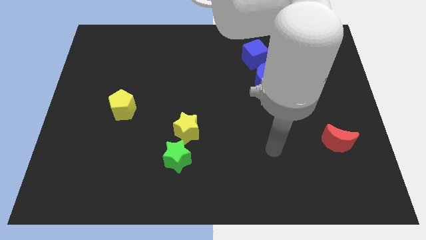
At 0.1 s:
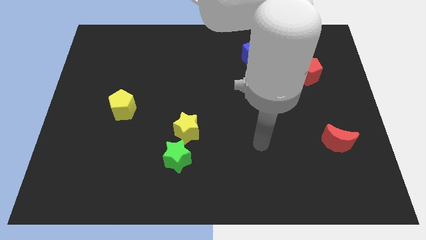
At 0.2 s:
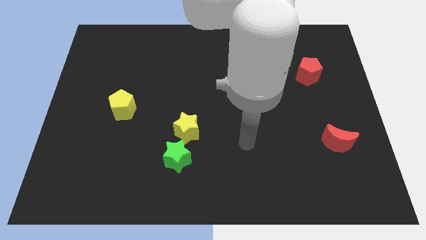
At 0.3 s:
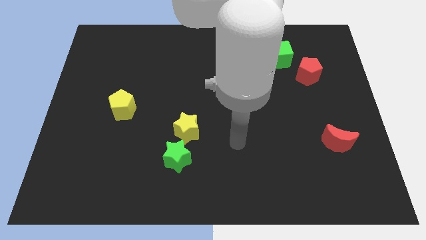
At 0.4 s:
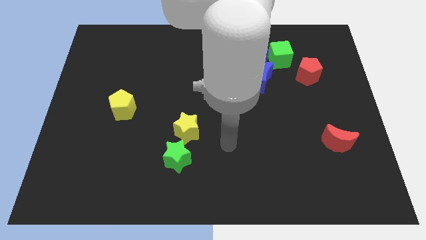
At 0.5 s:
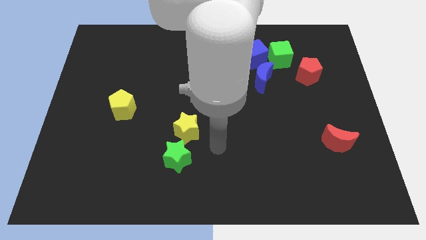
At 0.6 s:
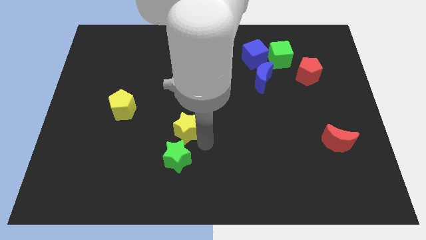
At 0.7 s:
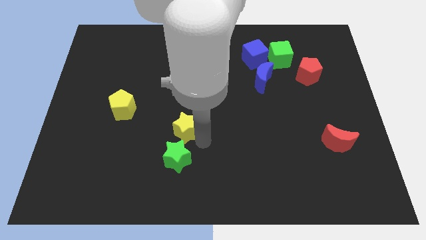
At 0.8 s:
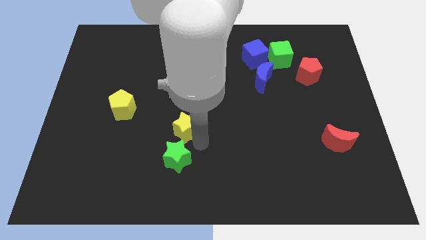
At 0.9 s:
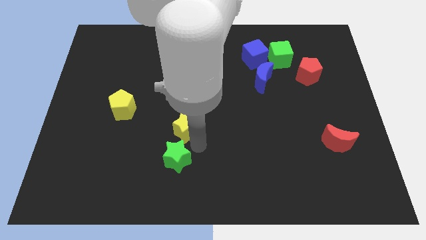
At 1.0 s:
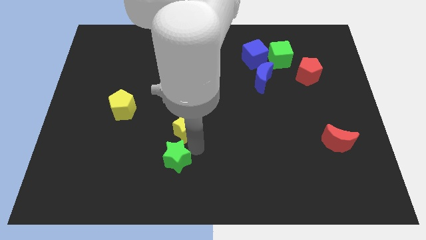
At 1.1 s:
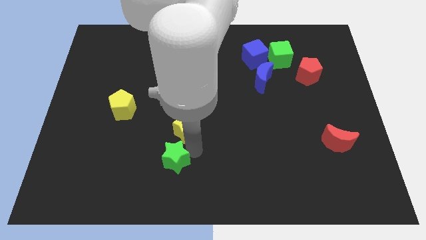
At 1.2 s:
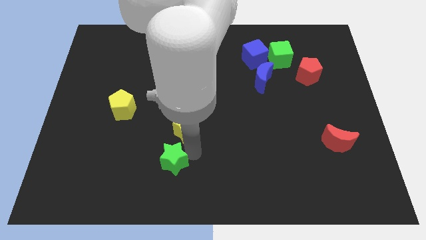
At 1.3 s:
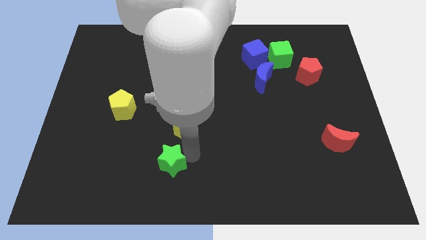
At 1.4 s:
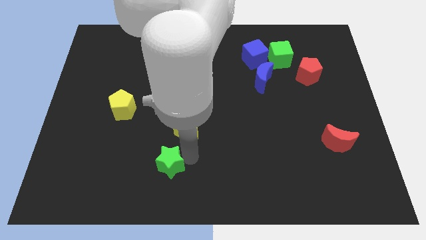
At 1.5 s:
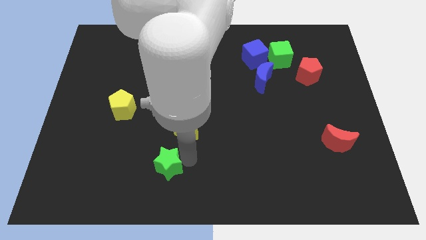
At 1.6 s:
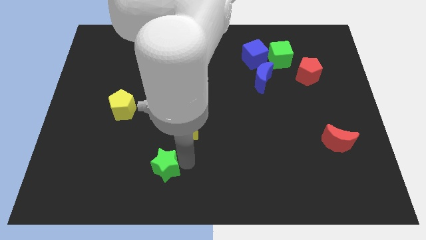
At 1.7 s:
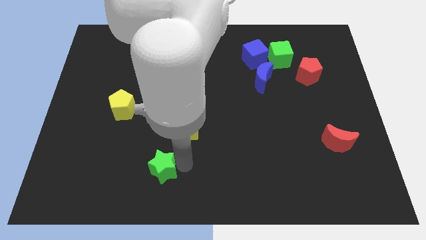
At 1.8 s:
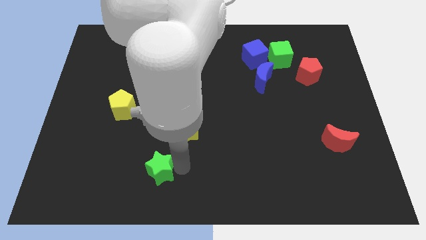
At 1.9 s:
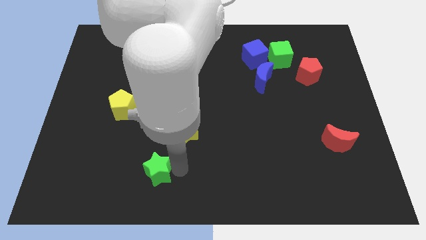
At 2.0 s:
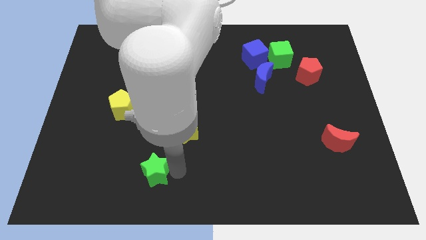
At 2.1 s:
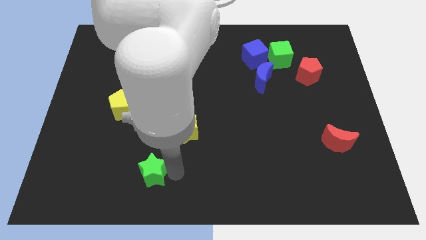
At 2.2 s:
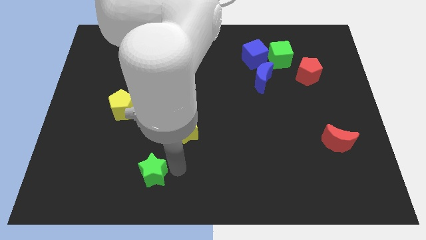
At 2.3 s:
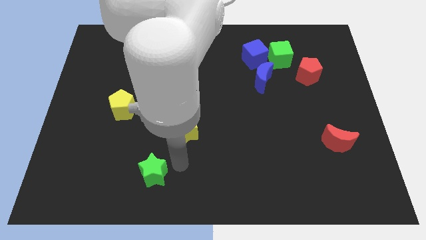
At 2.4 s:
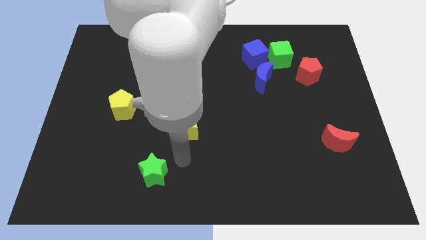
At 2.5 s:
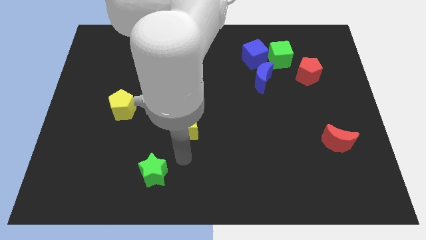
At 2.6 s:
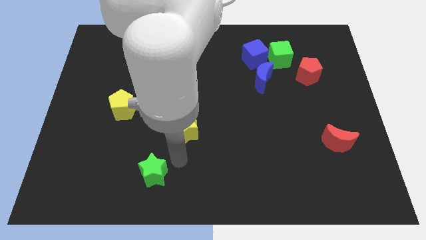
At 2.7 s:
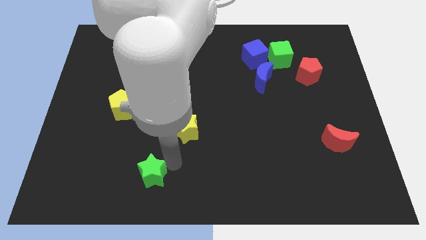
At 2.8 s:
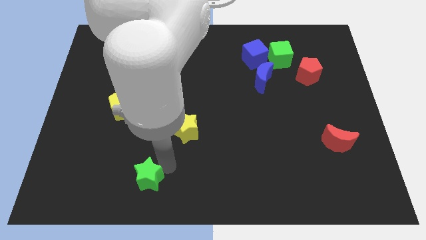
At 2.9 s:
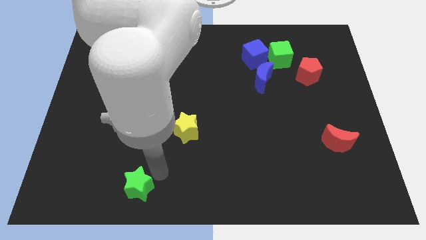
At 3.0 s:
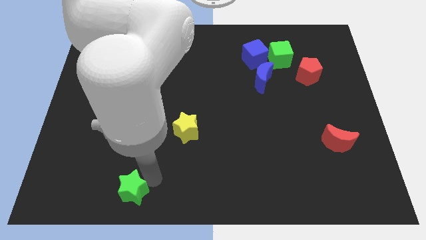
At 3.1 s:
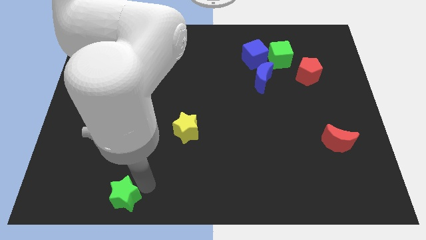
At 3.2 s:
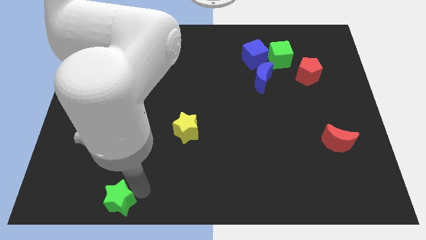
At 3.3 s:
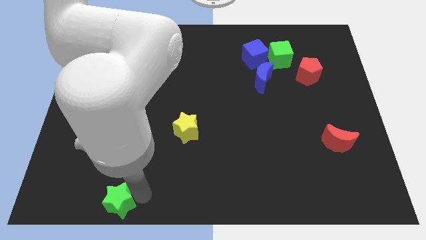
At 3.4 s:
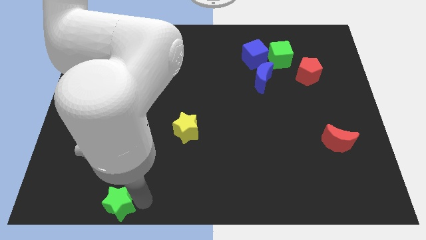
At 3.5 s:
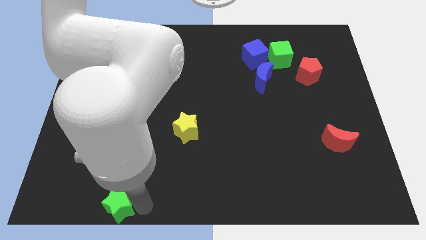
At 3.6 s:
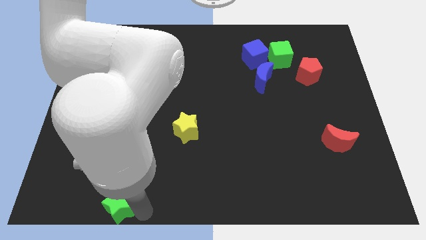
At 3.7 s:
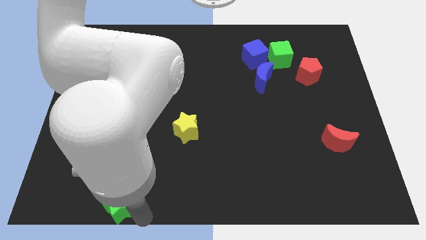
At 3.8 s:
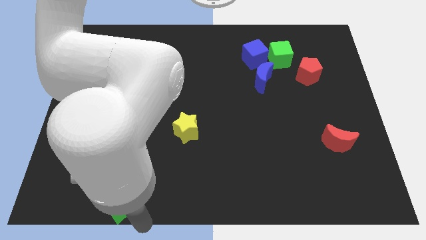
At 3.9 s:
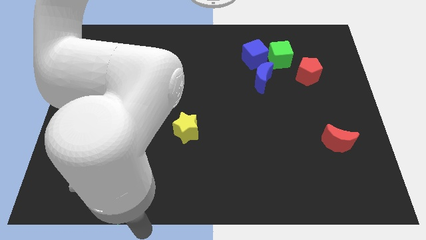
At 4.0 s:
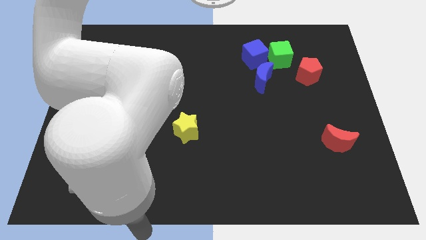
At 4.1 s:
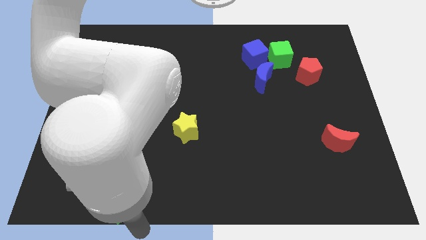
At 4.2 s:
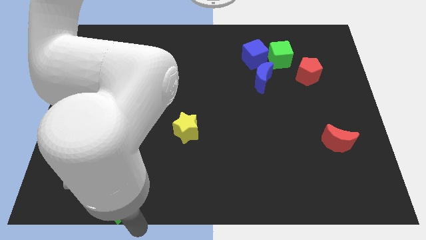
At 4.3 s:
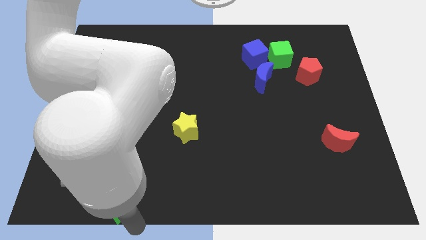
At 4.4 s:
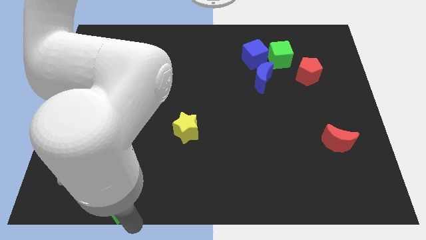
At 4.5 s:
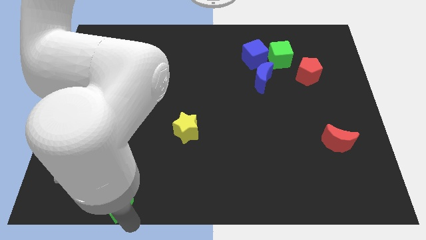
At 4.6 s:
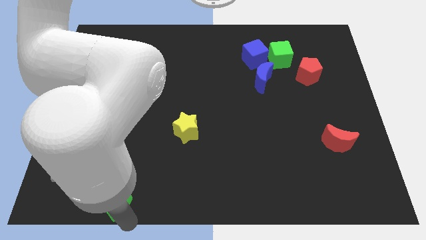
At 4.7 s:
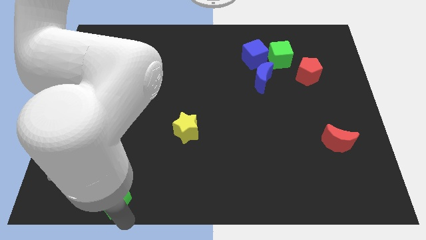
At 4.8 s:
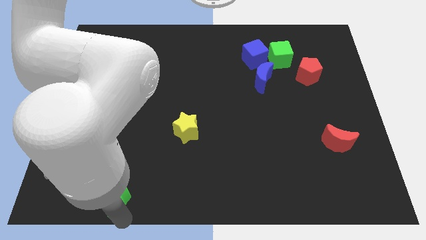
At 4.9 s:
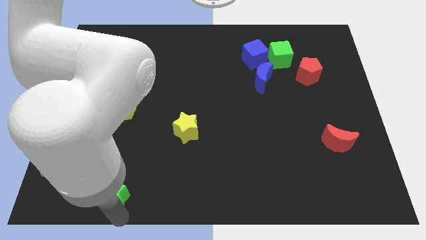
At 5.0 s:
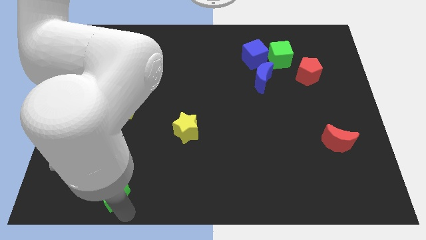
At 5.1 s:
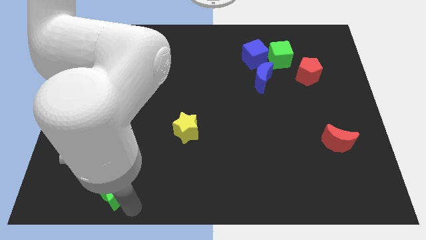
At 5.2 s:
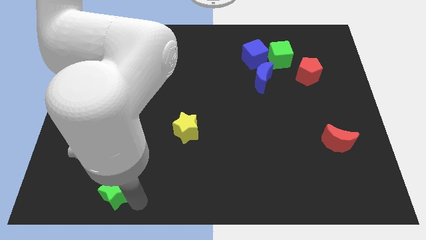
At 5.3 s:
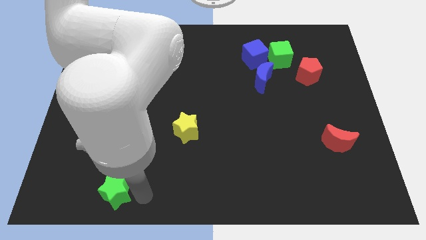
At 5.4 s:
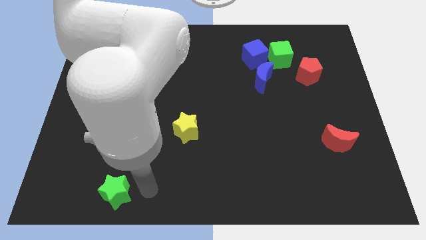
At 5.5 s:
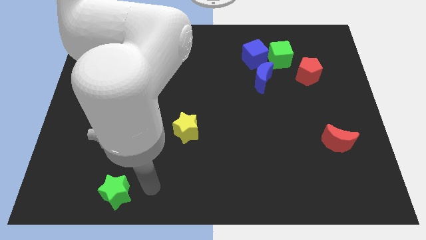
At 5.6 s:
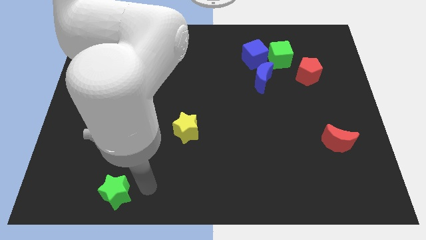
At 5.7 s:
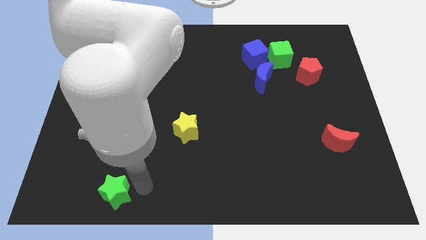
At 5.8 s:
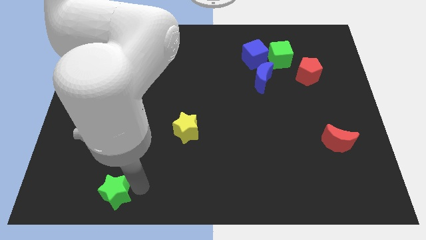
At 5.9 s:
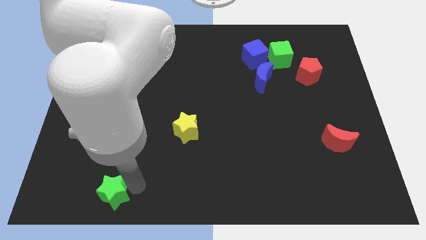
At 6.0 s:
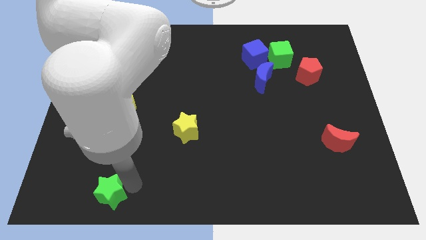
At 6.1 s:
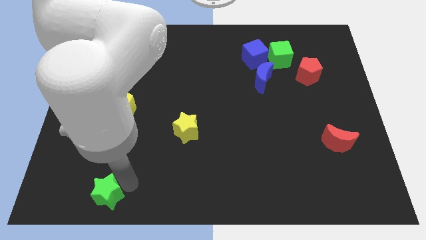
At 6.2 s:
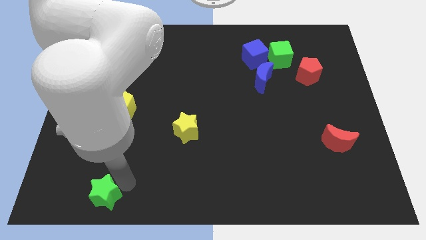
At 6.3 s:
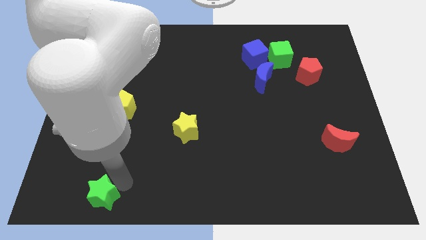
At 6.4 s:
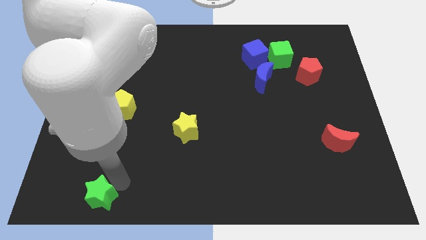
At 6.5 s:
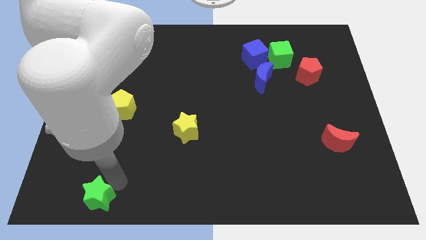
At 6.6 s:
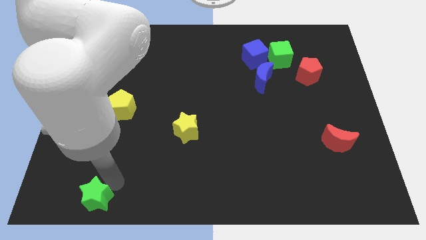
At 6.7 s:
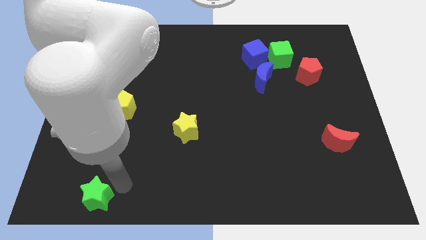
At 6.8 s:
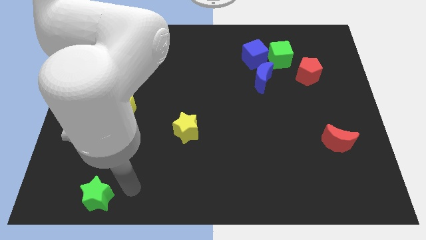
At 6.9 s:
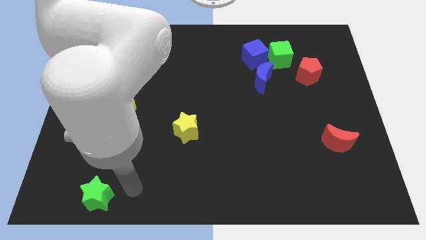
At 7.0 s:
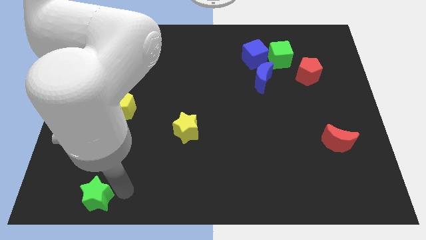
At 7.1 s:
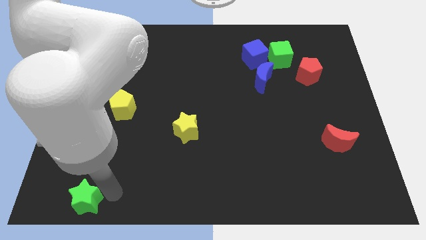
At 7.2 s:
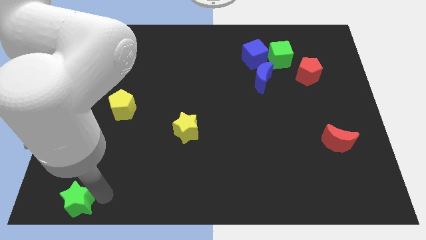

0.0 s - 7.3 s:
put the green star to the bottom left
